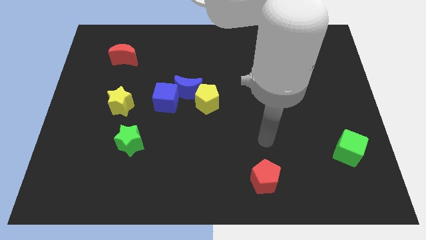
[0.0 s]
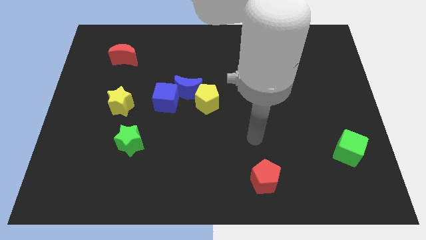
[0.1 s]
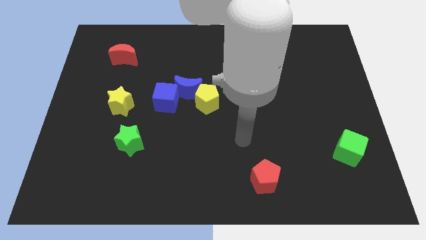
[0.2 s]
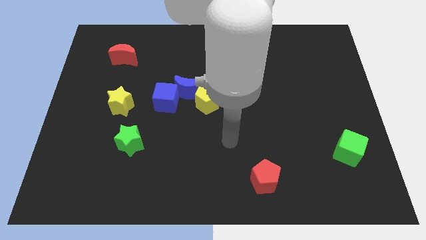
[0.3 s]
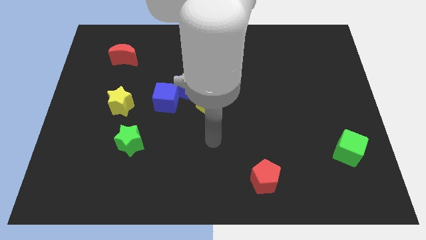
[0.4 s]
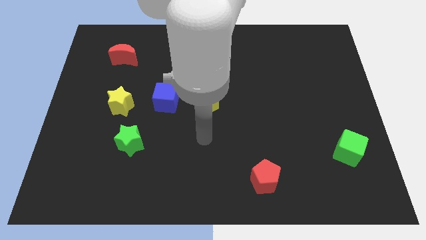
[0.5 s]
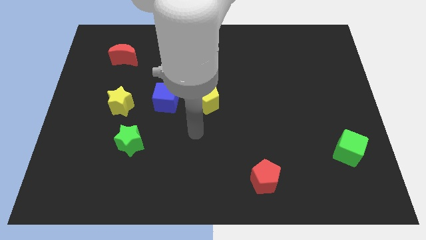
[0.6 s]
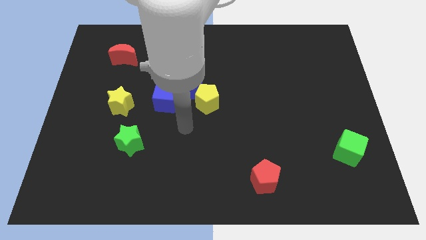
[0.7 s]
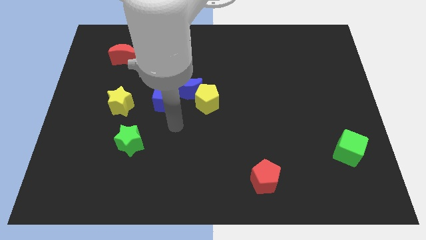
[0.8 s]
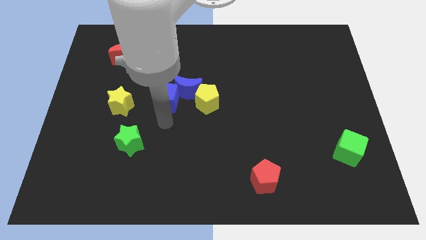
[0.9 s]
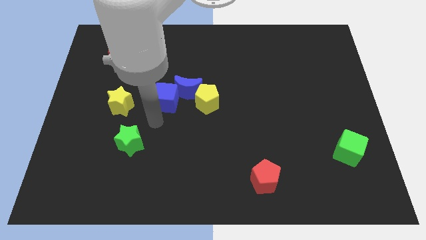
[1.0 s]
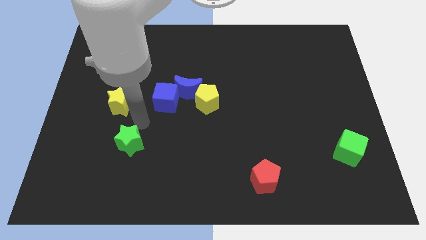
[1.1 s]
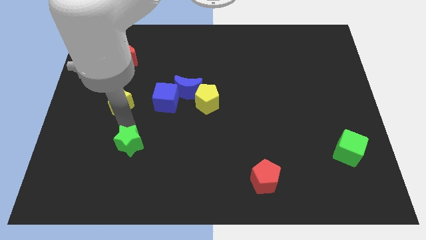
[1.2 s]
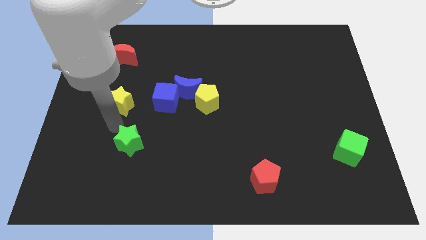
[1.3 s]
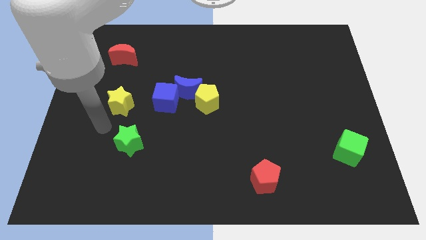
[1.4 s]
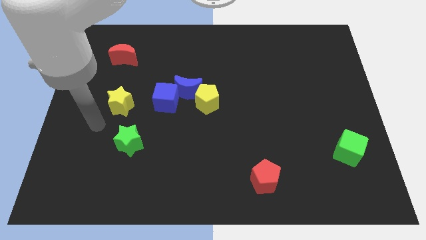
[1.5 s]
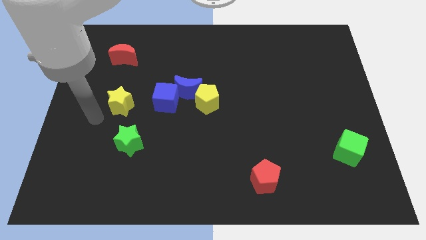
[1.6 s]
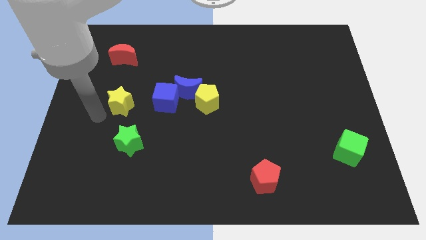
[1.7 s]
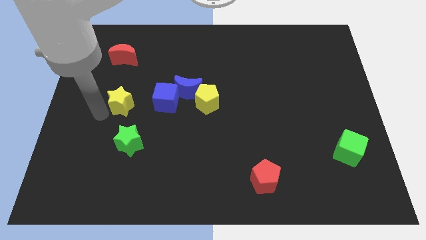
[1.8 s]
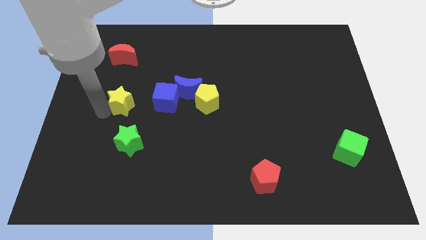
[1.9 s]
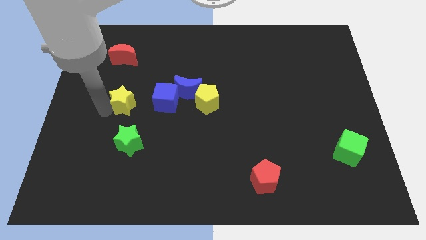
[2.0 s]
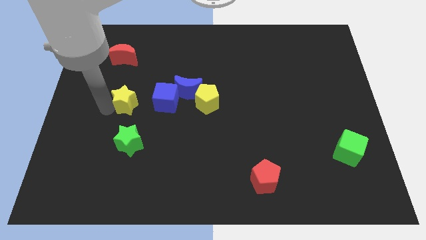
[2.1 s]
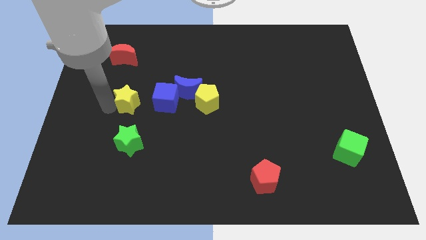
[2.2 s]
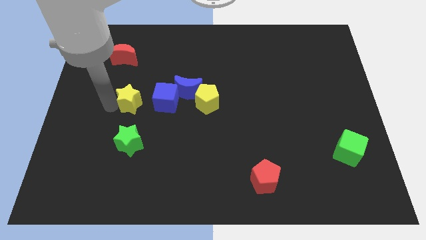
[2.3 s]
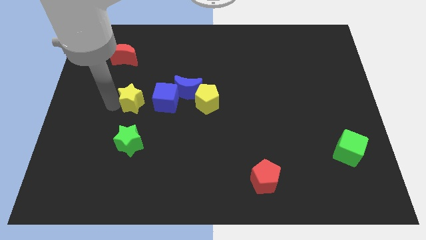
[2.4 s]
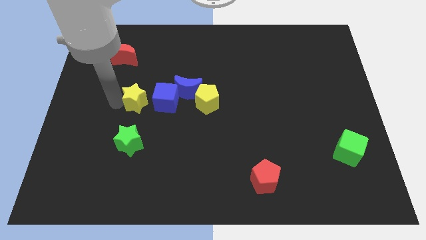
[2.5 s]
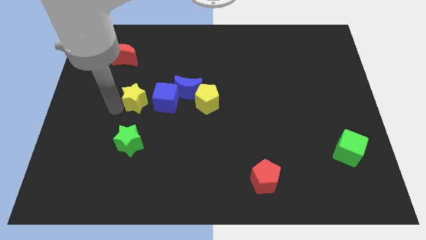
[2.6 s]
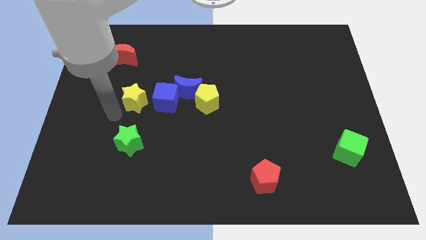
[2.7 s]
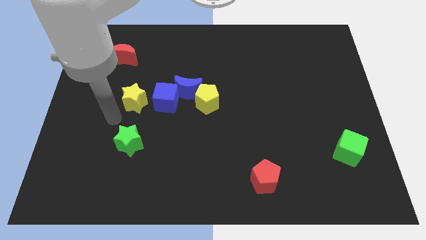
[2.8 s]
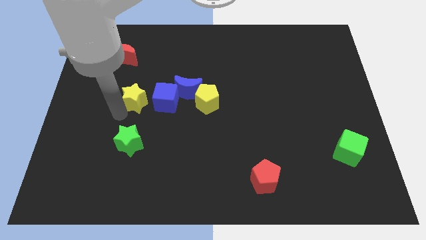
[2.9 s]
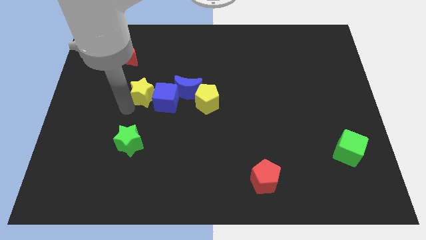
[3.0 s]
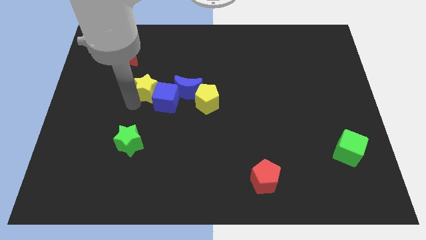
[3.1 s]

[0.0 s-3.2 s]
slide the yellow star up and then to the right a little

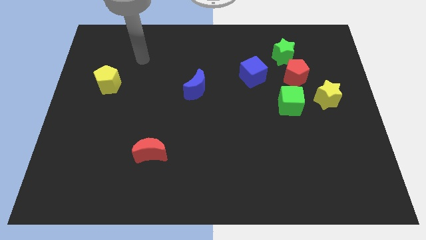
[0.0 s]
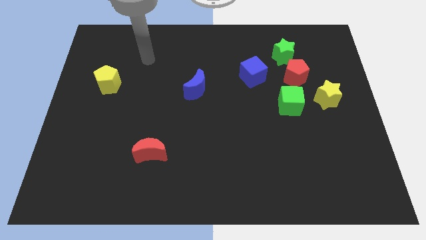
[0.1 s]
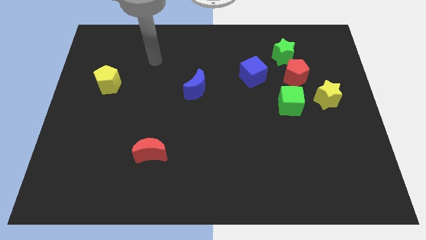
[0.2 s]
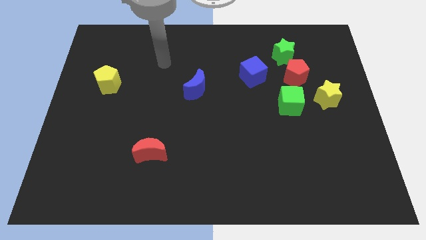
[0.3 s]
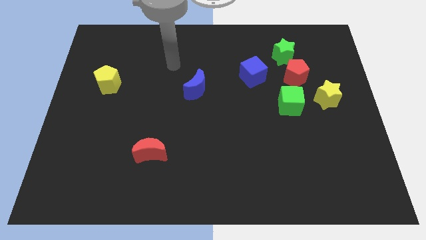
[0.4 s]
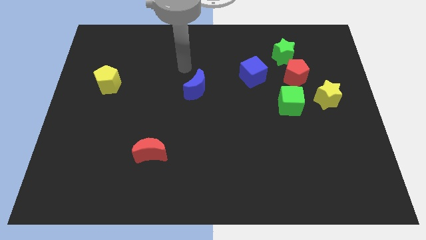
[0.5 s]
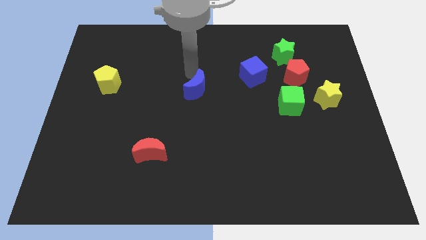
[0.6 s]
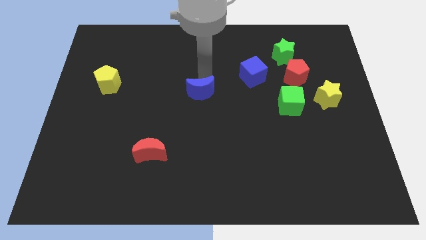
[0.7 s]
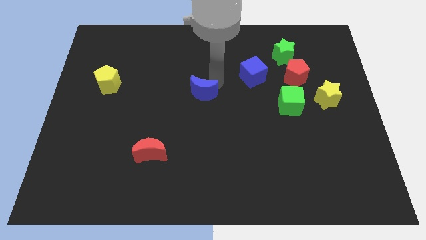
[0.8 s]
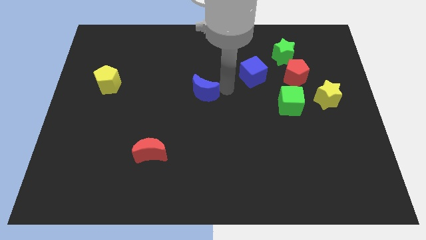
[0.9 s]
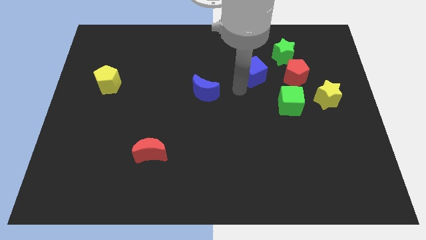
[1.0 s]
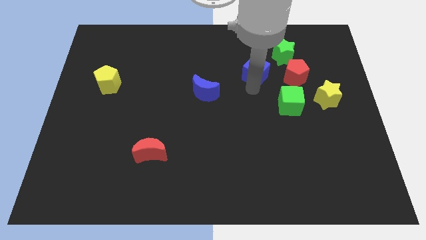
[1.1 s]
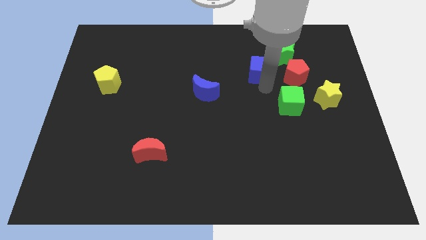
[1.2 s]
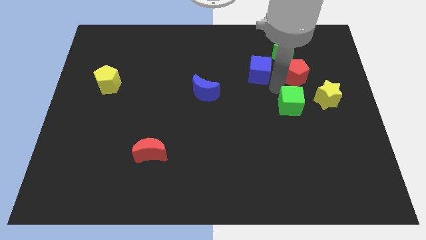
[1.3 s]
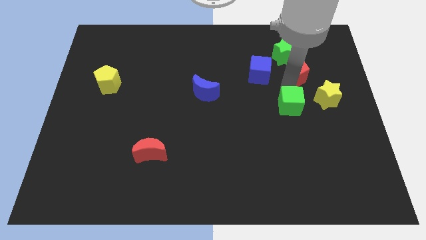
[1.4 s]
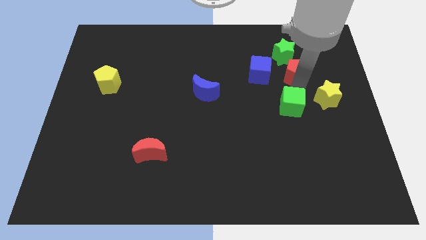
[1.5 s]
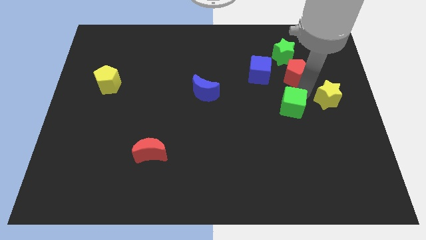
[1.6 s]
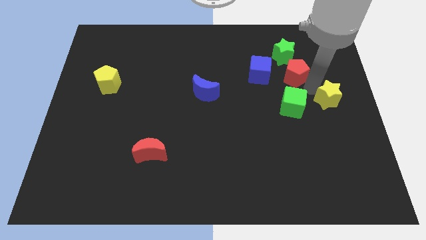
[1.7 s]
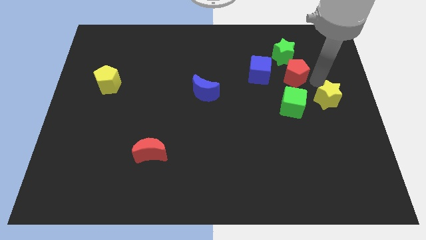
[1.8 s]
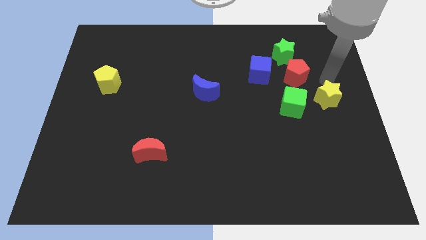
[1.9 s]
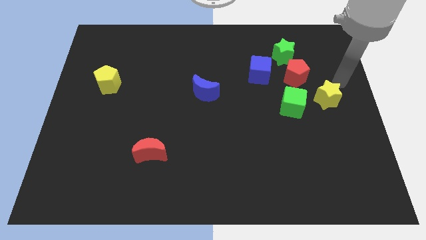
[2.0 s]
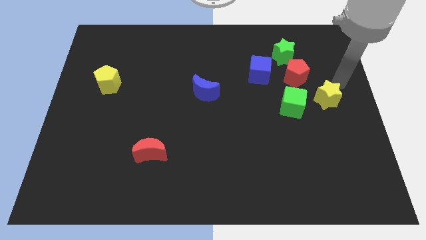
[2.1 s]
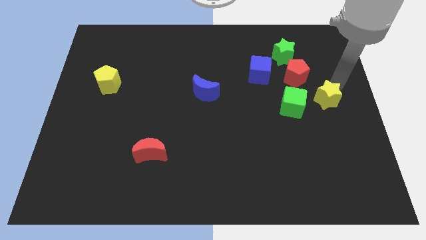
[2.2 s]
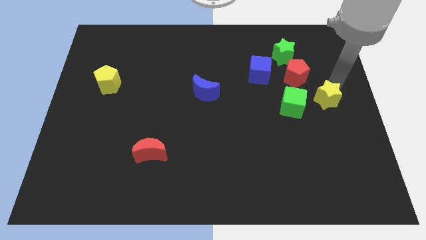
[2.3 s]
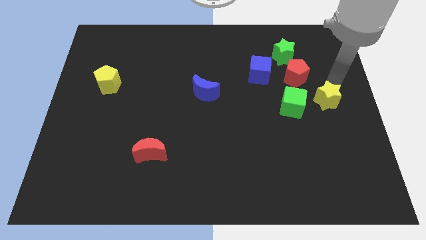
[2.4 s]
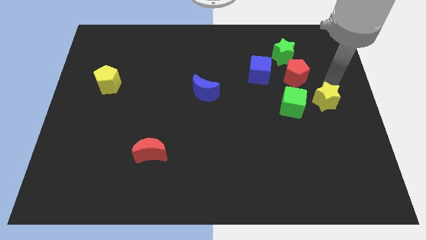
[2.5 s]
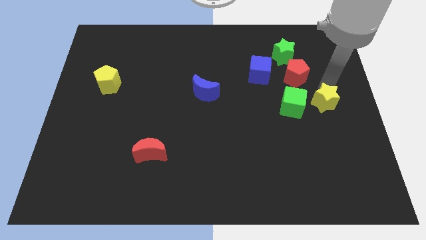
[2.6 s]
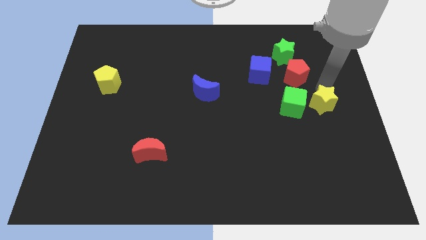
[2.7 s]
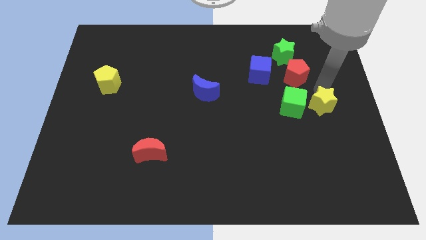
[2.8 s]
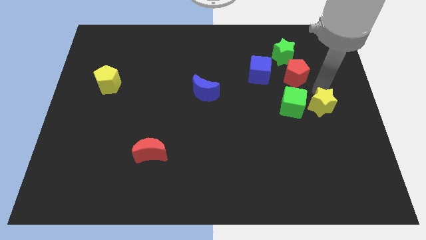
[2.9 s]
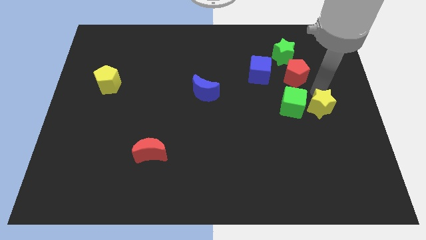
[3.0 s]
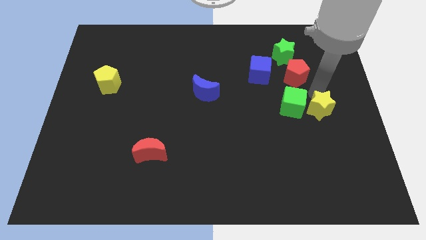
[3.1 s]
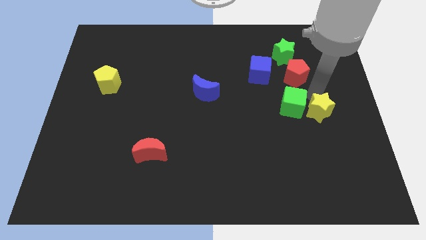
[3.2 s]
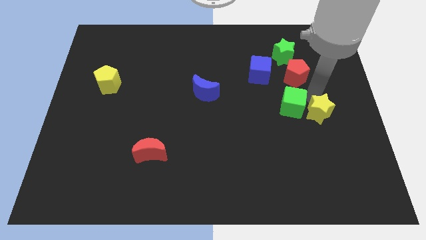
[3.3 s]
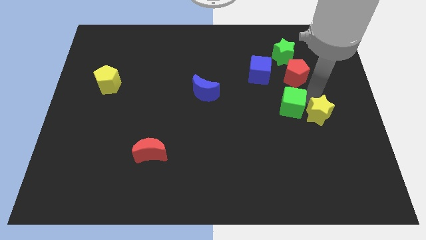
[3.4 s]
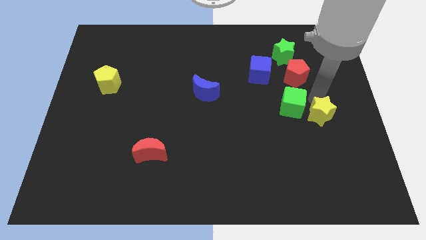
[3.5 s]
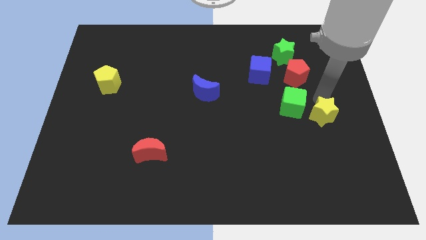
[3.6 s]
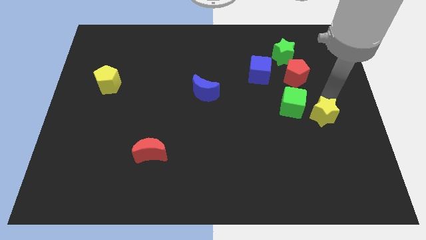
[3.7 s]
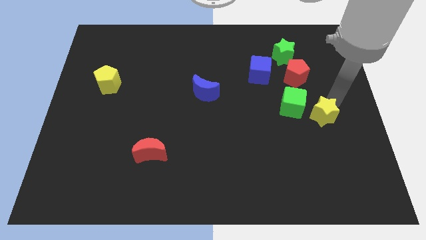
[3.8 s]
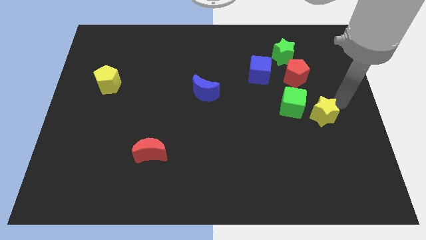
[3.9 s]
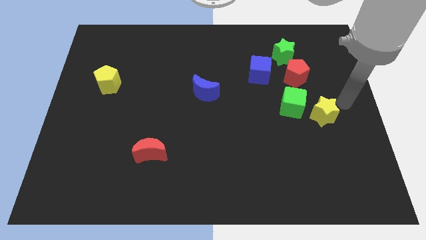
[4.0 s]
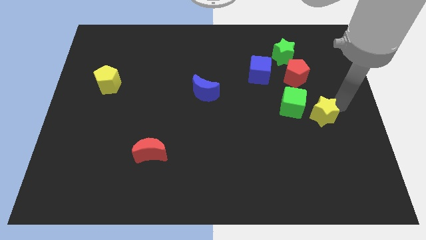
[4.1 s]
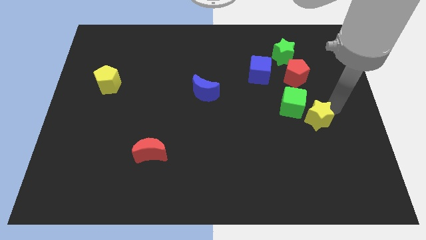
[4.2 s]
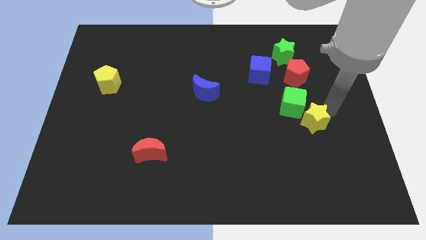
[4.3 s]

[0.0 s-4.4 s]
slightly push the yellow star downwards and then to the left

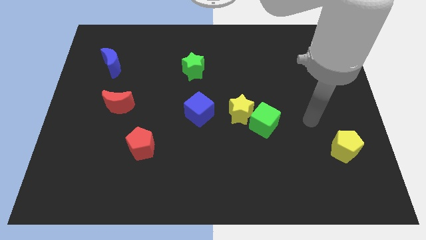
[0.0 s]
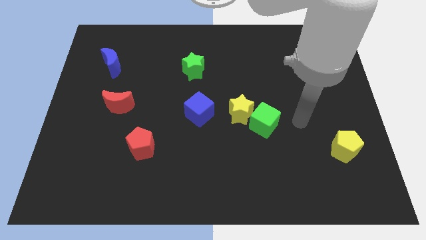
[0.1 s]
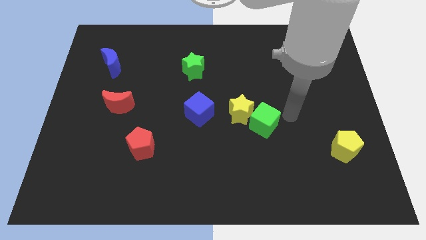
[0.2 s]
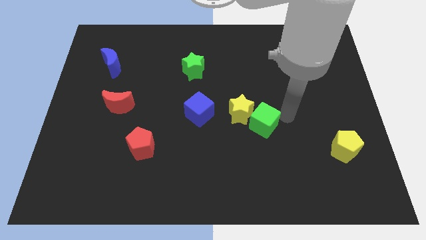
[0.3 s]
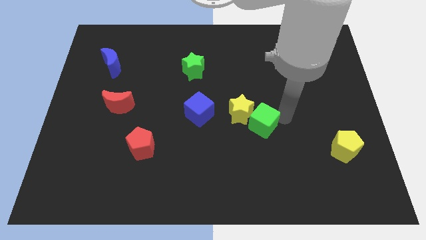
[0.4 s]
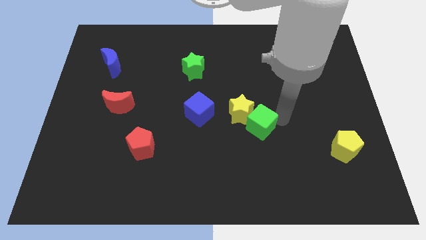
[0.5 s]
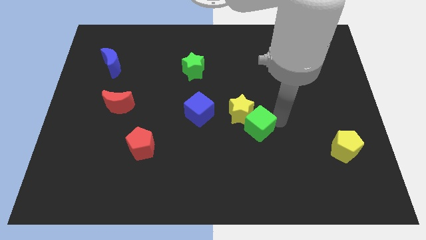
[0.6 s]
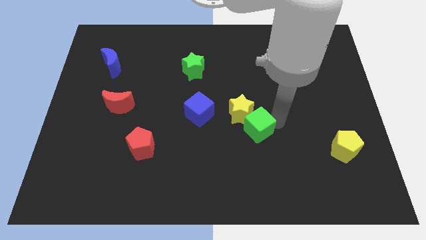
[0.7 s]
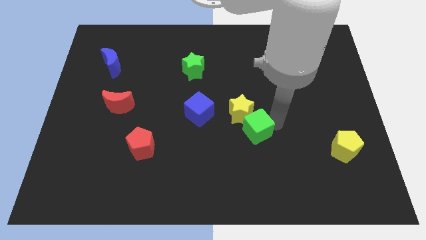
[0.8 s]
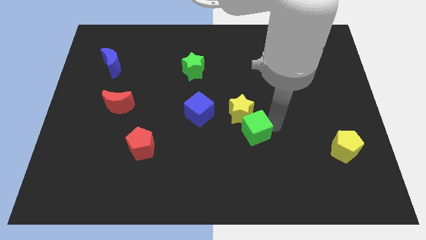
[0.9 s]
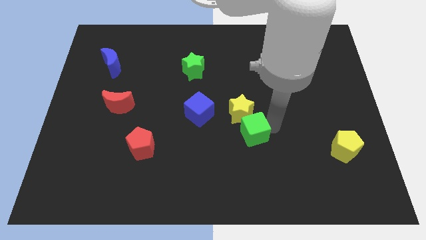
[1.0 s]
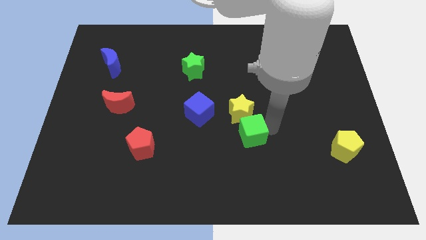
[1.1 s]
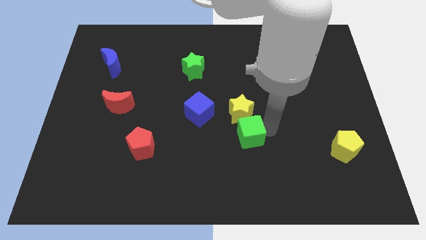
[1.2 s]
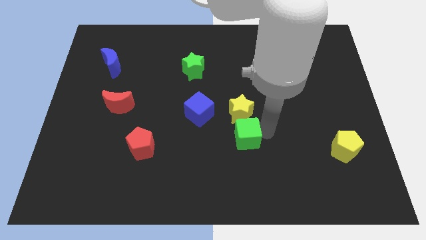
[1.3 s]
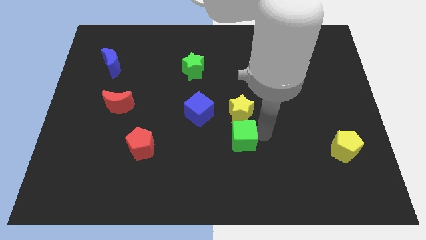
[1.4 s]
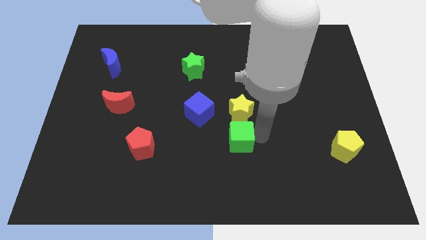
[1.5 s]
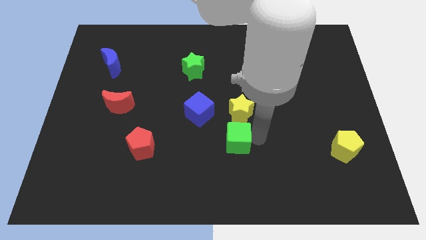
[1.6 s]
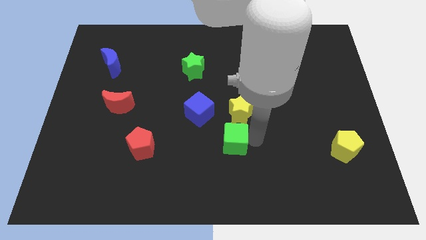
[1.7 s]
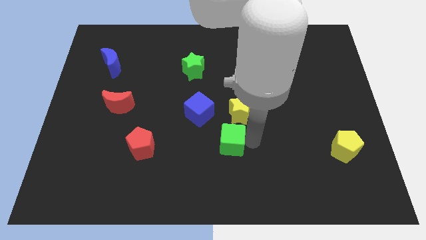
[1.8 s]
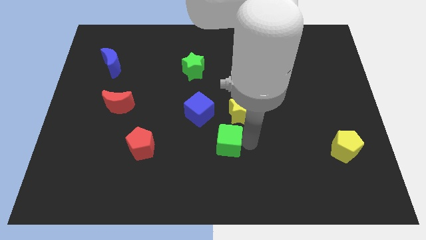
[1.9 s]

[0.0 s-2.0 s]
slide the green cube slightly left
